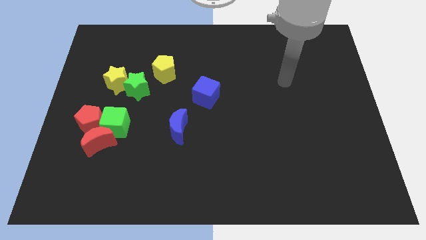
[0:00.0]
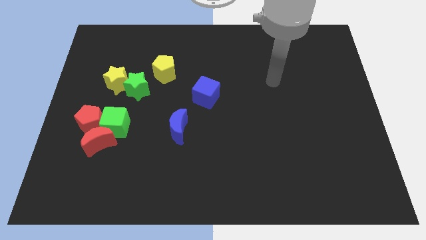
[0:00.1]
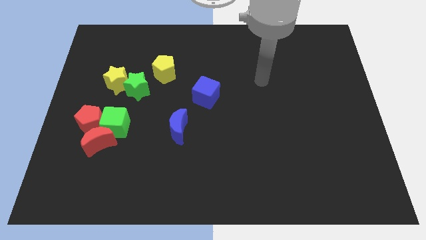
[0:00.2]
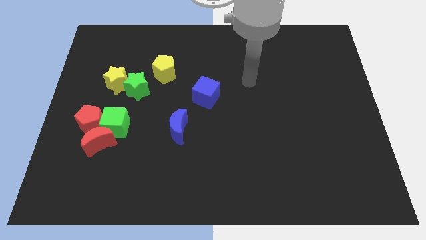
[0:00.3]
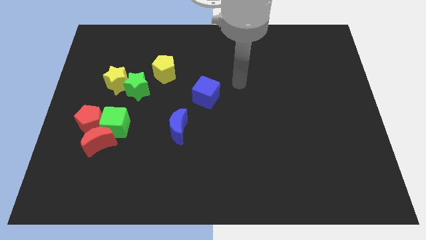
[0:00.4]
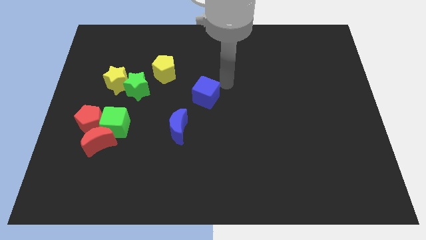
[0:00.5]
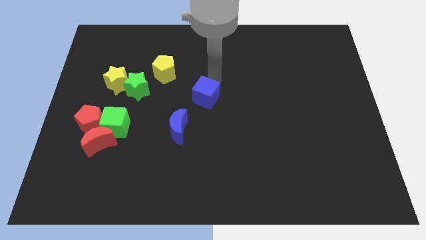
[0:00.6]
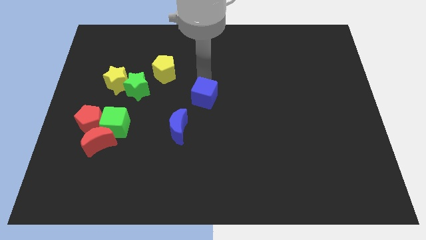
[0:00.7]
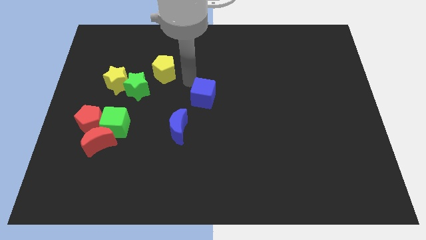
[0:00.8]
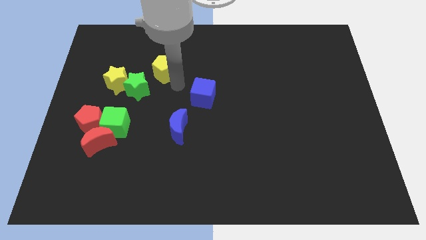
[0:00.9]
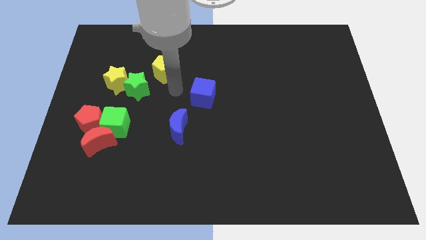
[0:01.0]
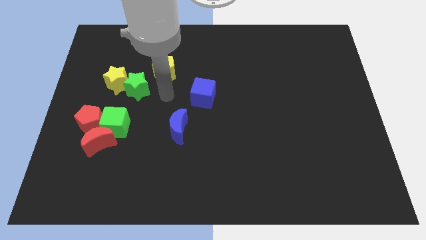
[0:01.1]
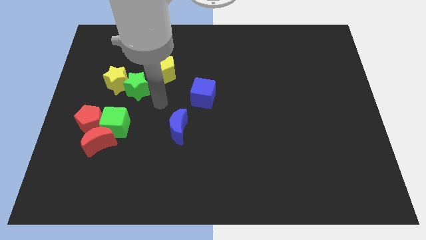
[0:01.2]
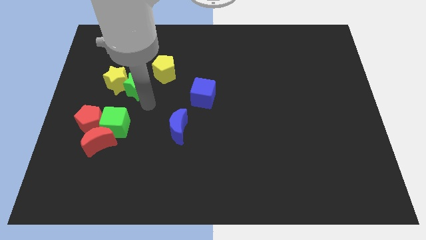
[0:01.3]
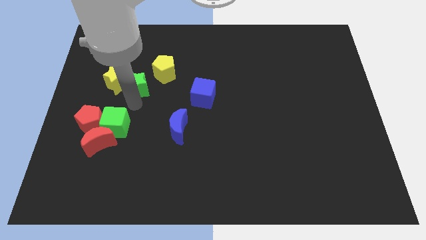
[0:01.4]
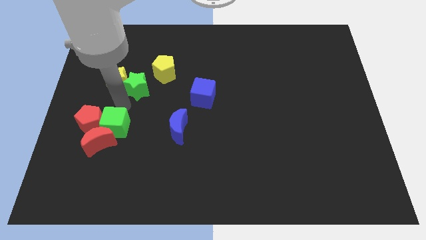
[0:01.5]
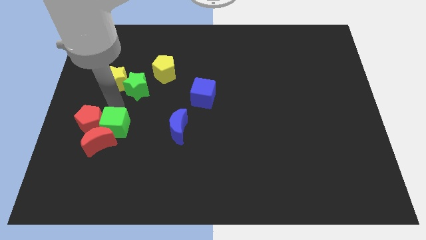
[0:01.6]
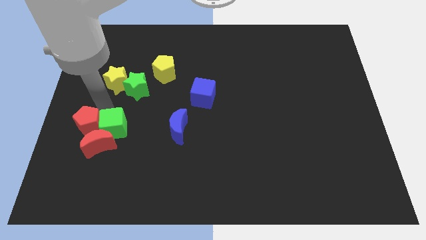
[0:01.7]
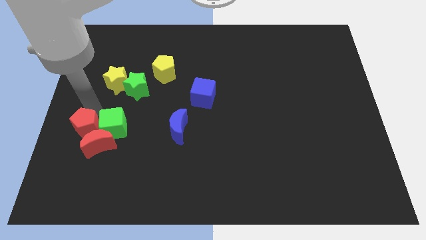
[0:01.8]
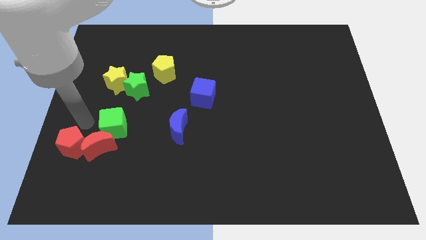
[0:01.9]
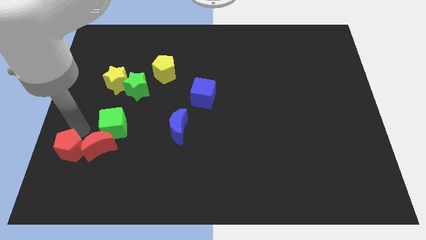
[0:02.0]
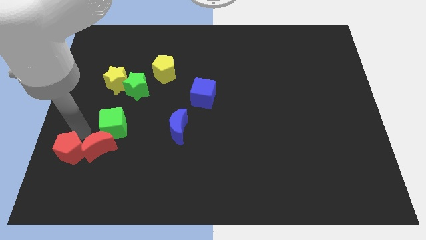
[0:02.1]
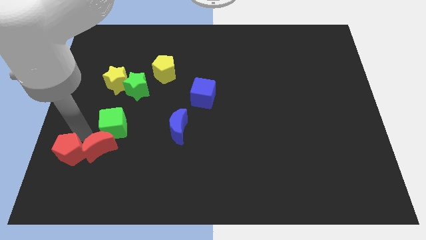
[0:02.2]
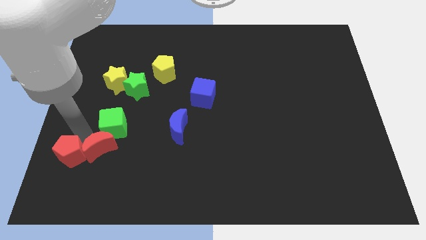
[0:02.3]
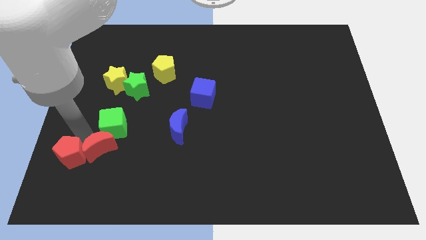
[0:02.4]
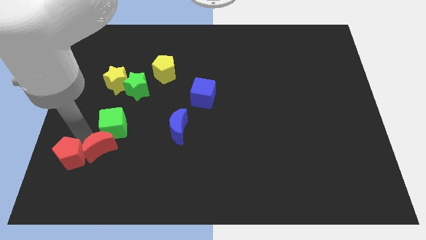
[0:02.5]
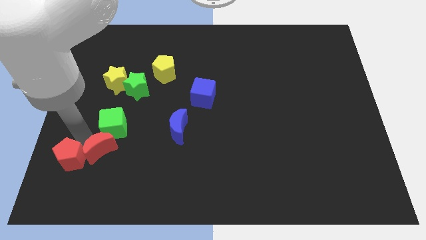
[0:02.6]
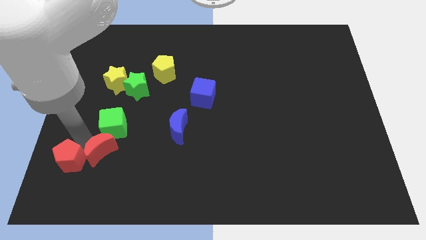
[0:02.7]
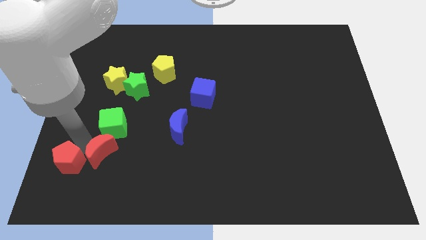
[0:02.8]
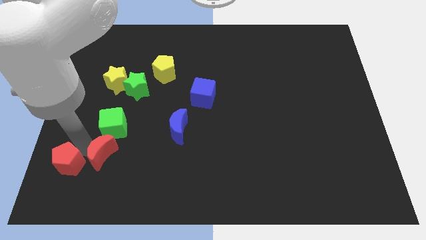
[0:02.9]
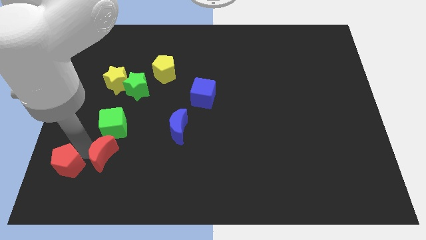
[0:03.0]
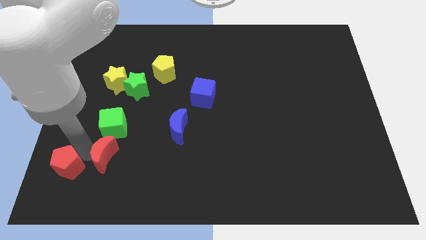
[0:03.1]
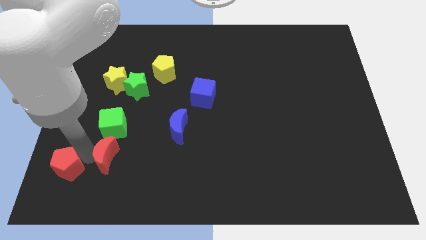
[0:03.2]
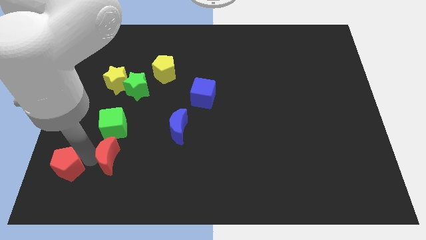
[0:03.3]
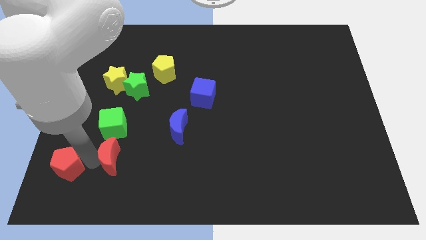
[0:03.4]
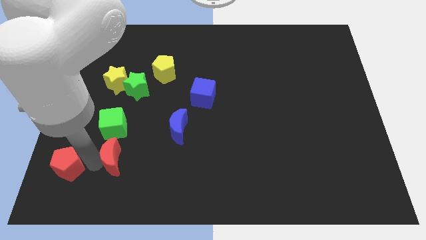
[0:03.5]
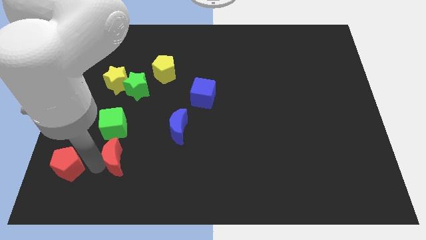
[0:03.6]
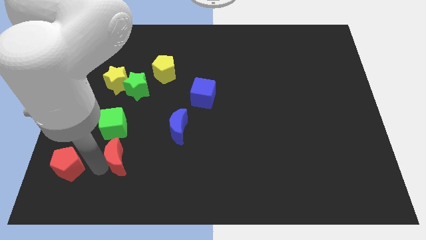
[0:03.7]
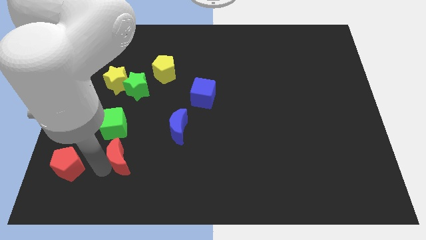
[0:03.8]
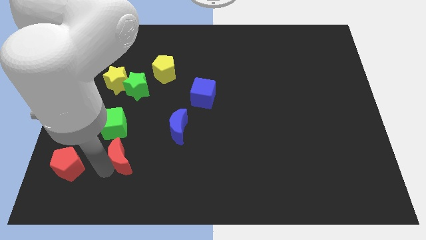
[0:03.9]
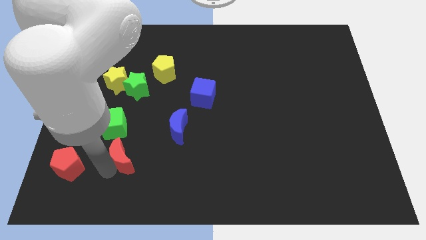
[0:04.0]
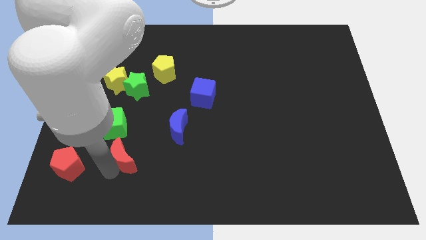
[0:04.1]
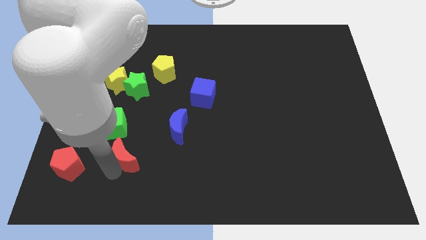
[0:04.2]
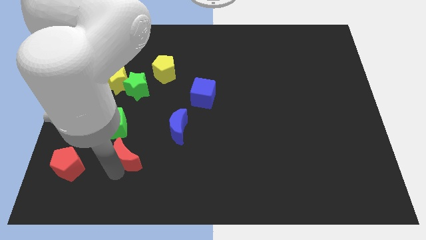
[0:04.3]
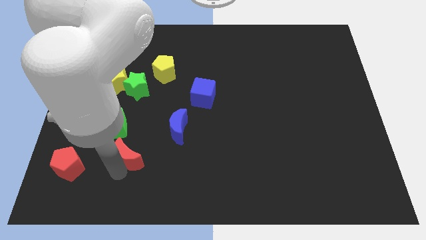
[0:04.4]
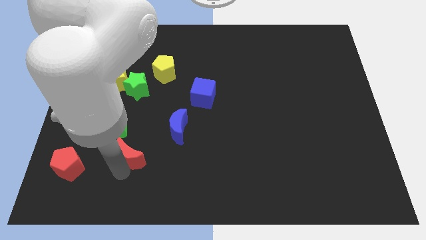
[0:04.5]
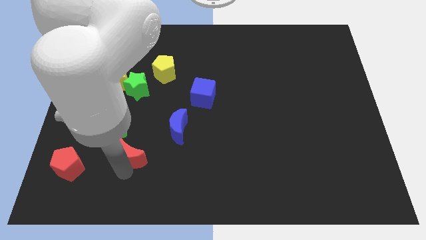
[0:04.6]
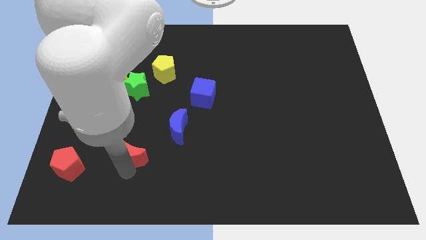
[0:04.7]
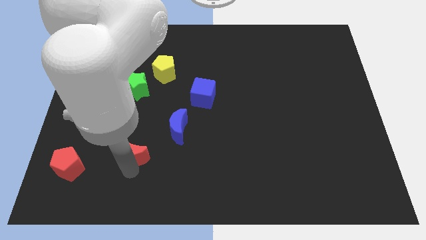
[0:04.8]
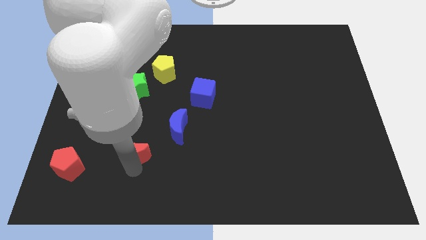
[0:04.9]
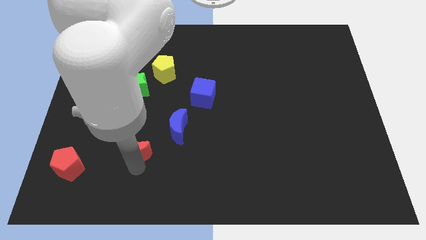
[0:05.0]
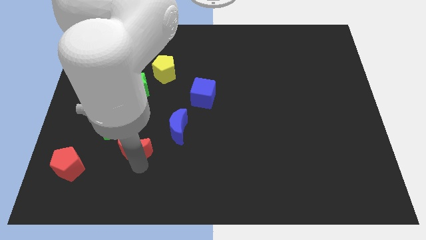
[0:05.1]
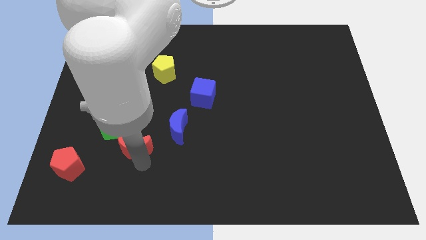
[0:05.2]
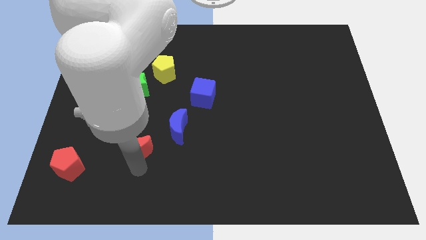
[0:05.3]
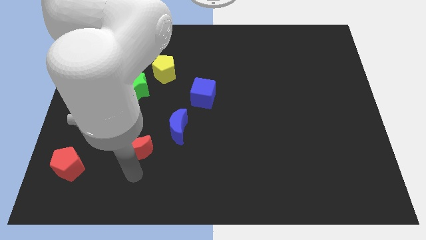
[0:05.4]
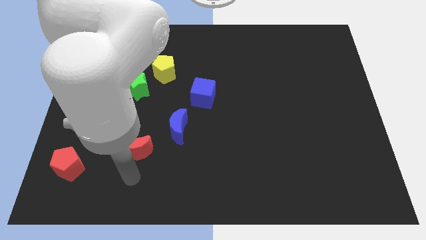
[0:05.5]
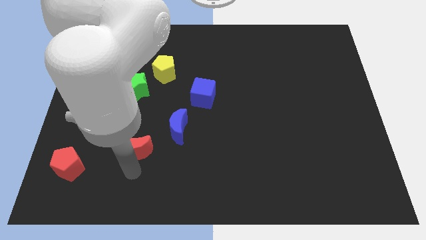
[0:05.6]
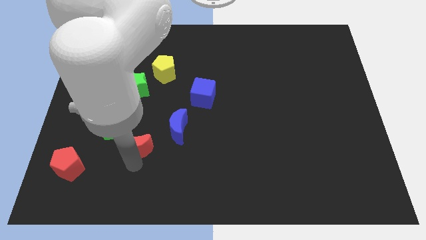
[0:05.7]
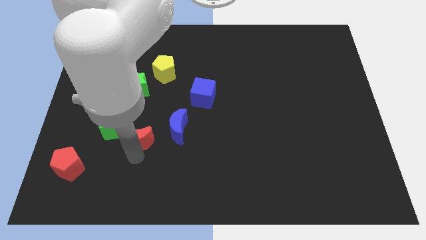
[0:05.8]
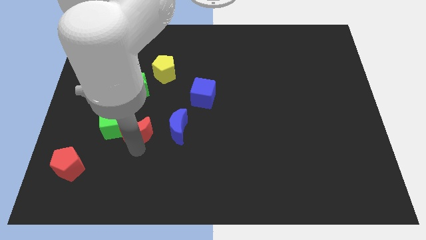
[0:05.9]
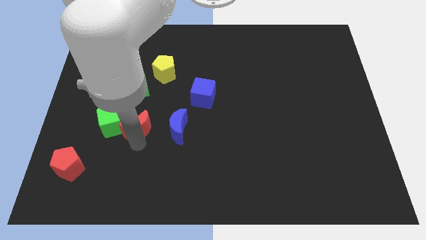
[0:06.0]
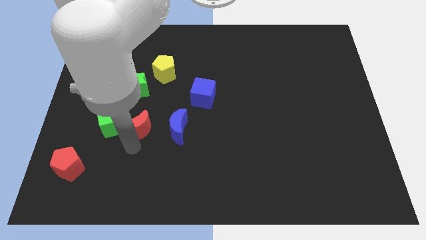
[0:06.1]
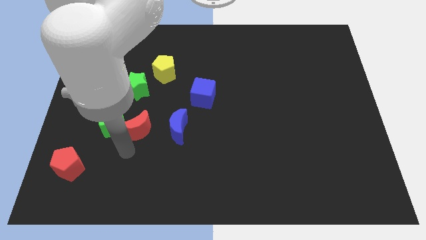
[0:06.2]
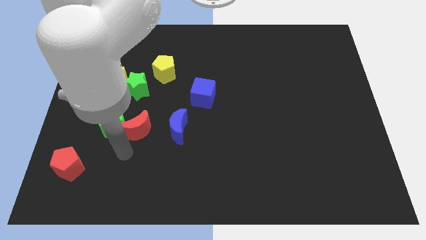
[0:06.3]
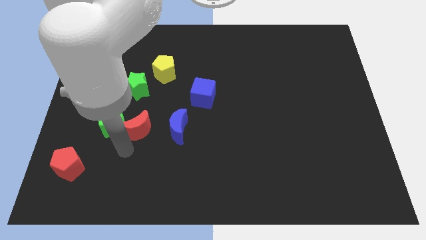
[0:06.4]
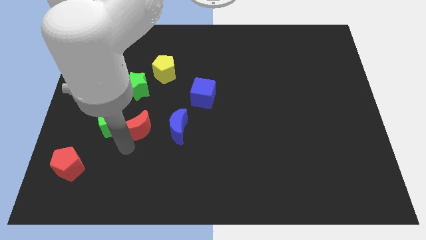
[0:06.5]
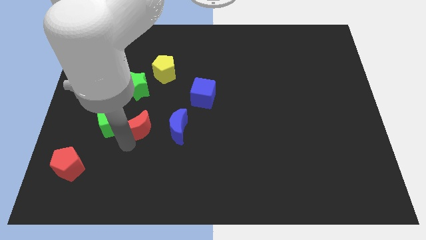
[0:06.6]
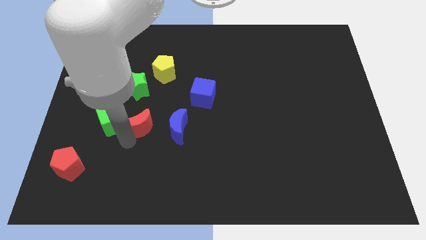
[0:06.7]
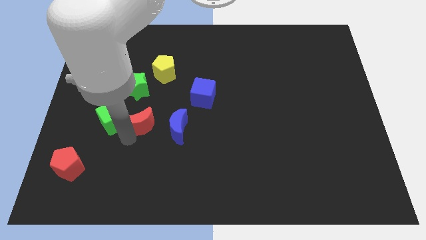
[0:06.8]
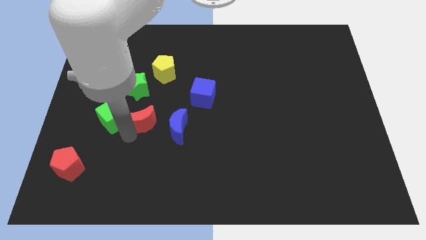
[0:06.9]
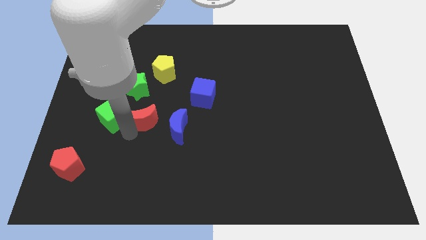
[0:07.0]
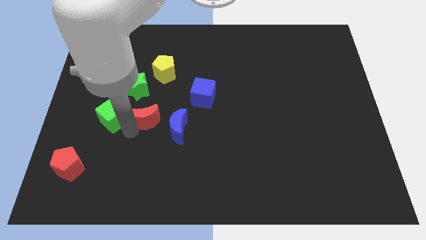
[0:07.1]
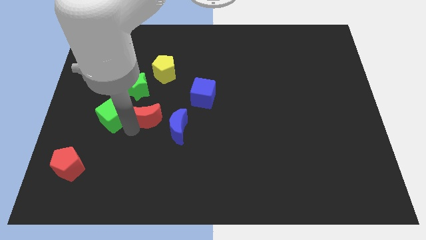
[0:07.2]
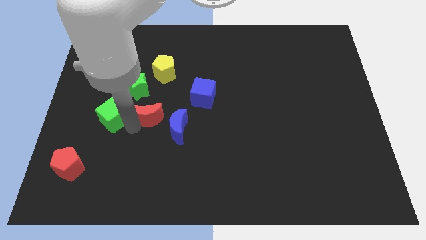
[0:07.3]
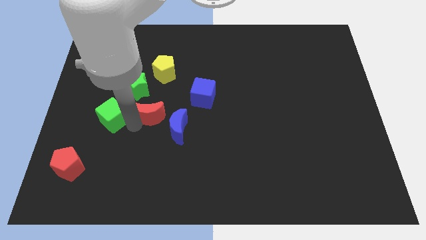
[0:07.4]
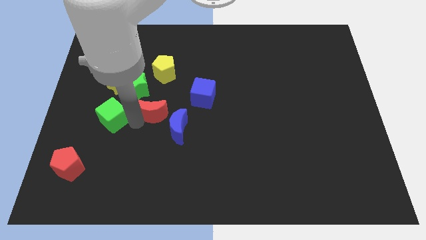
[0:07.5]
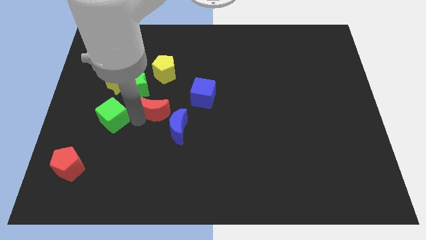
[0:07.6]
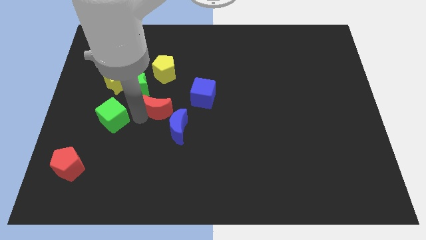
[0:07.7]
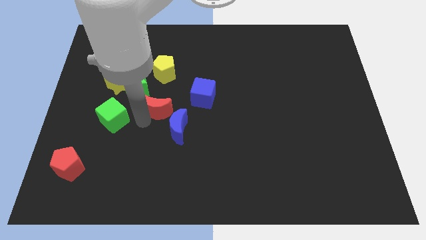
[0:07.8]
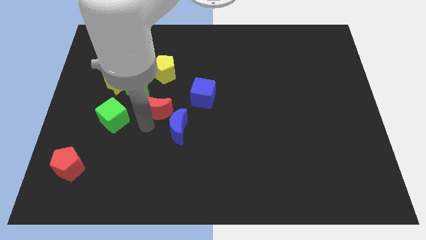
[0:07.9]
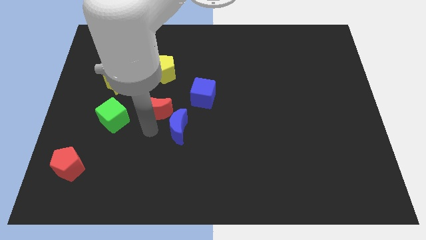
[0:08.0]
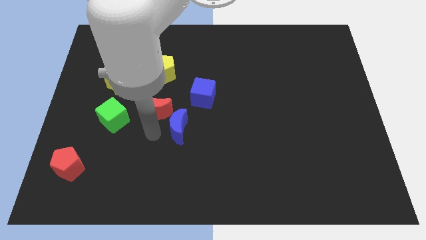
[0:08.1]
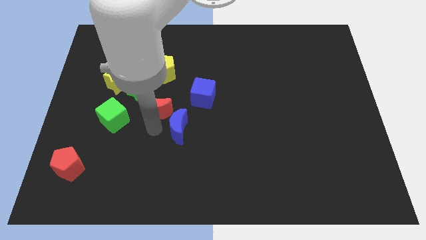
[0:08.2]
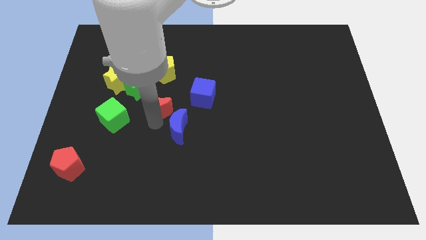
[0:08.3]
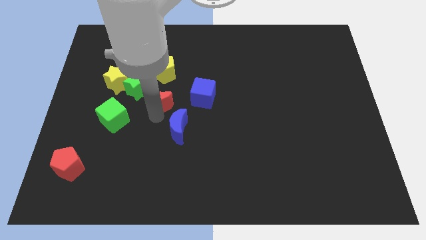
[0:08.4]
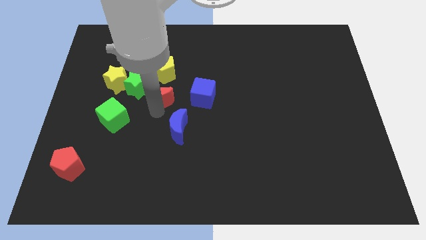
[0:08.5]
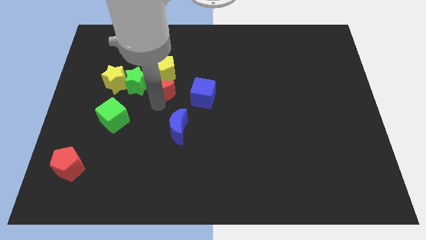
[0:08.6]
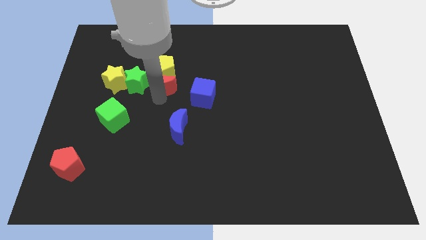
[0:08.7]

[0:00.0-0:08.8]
slide the red moon next to the yellow pentagon
